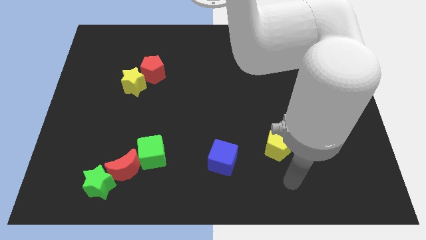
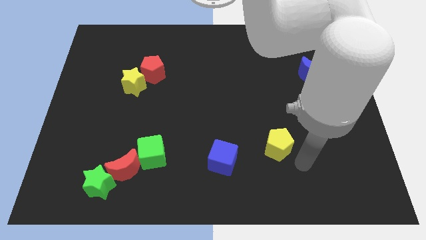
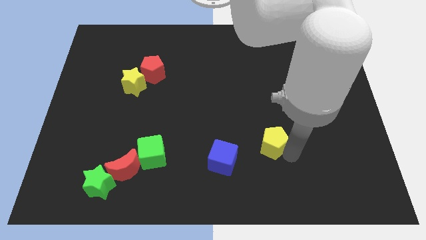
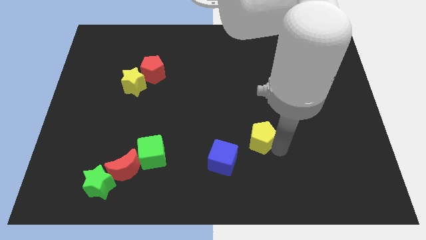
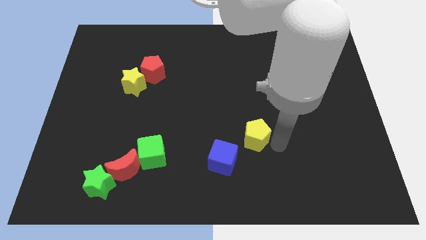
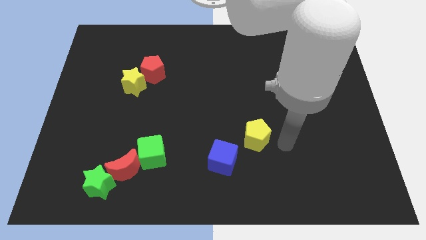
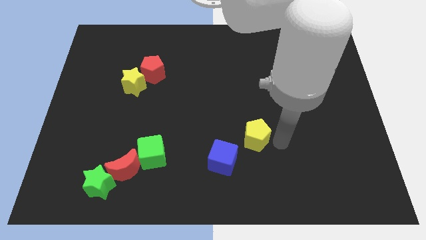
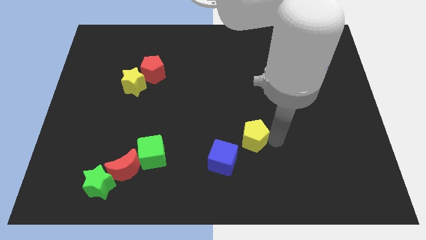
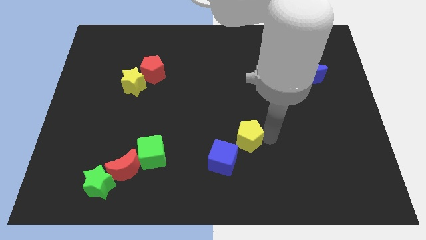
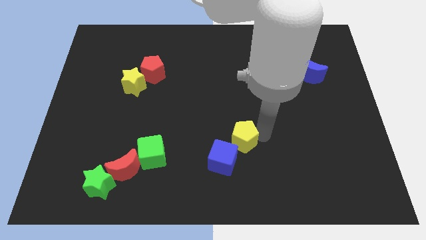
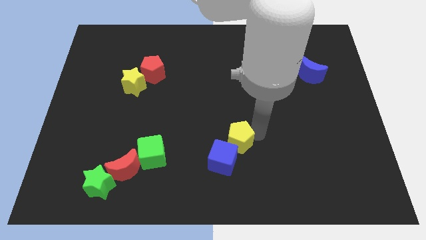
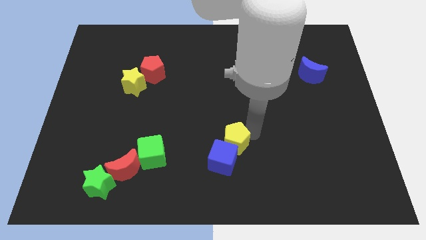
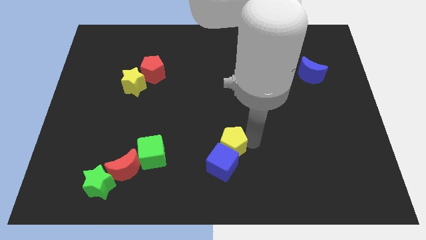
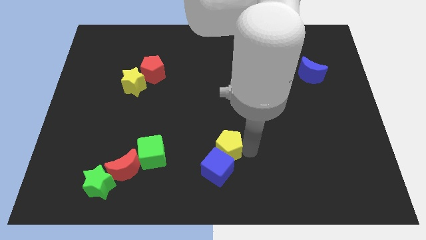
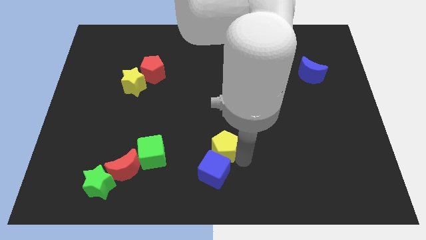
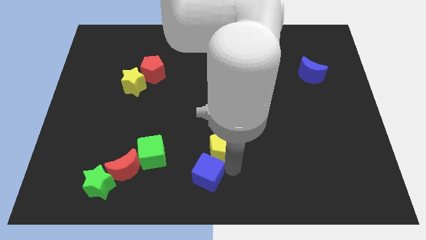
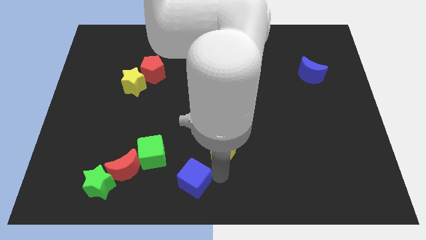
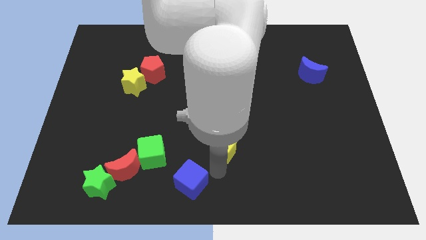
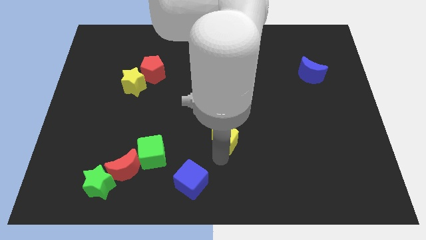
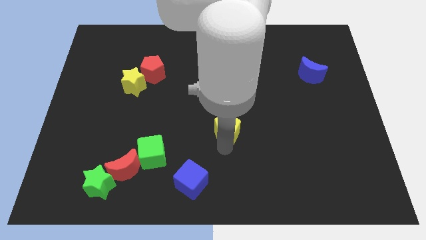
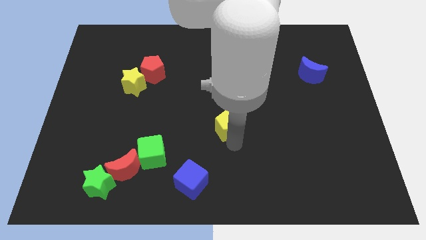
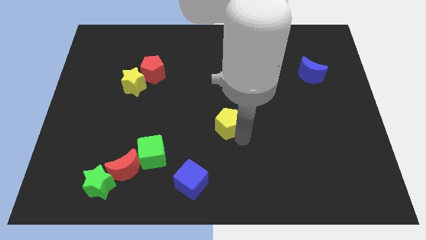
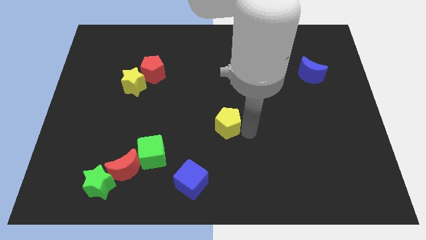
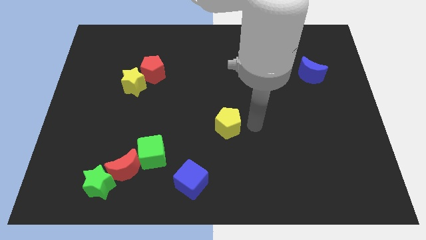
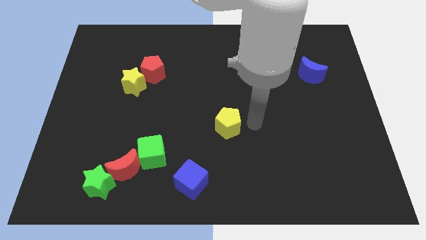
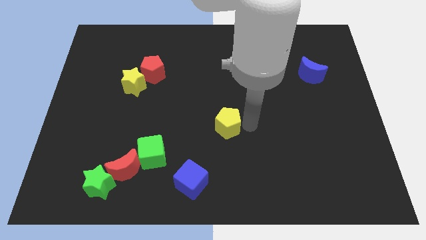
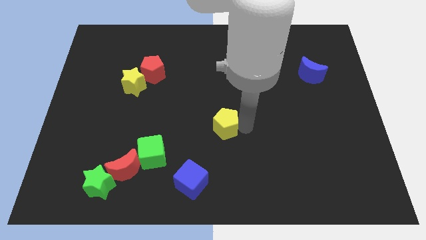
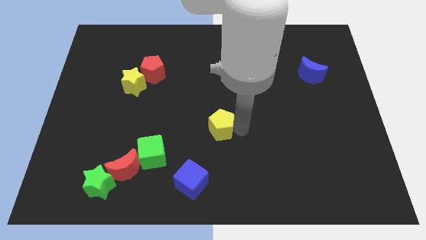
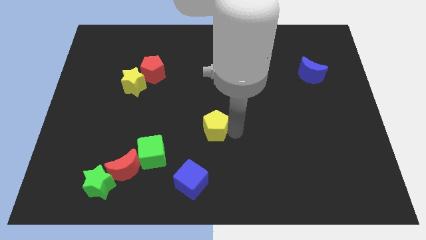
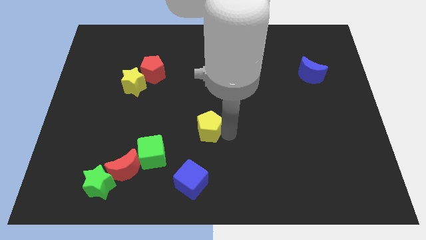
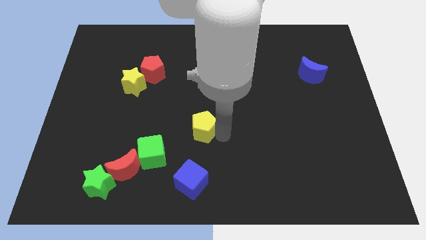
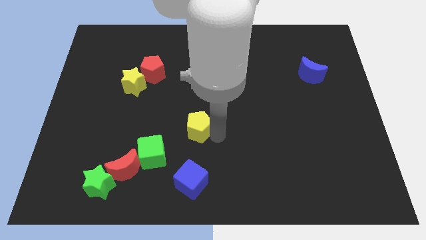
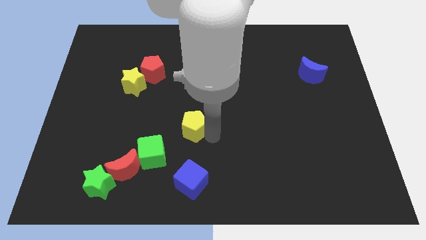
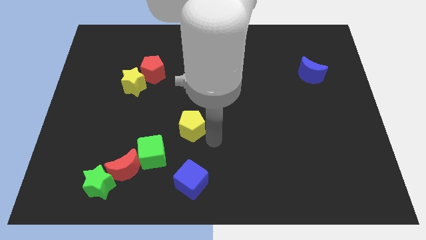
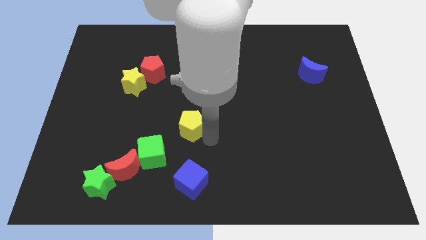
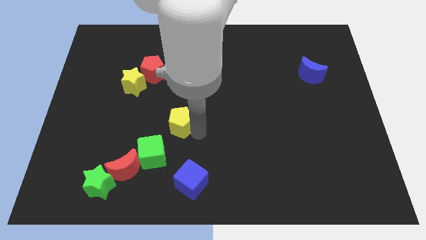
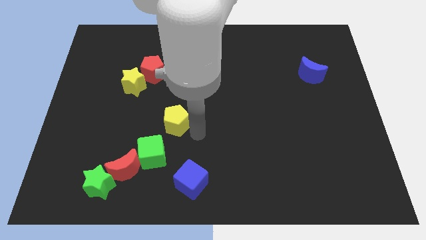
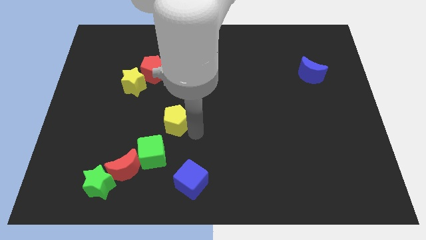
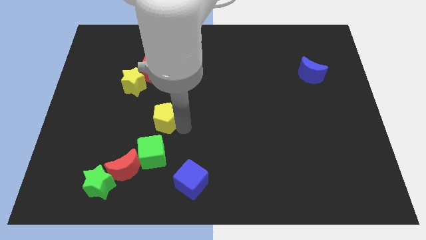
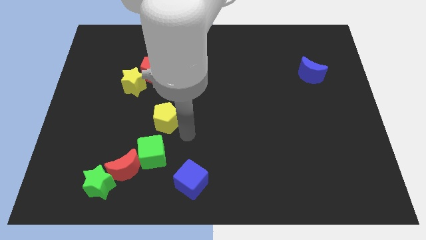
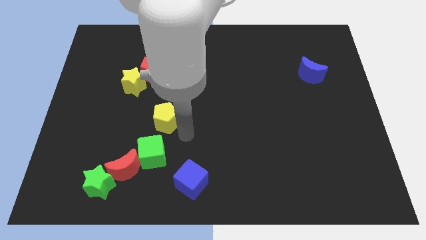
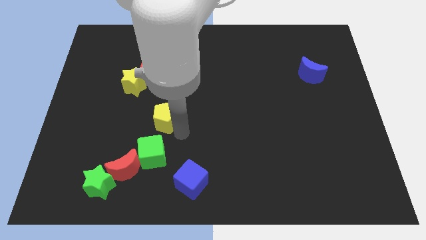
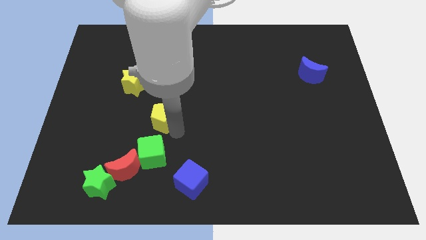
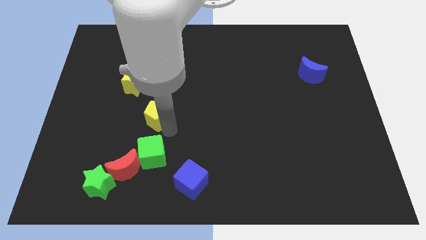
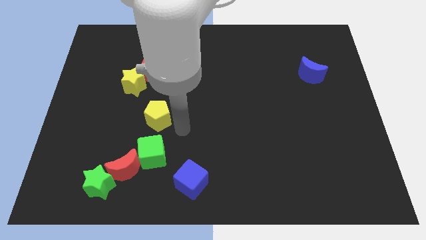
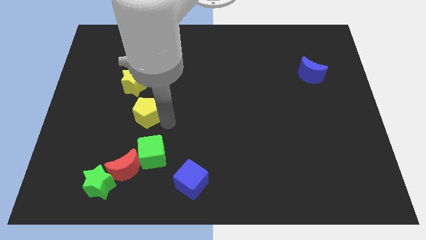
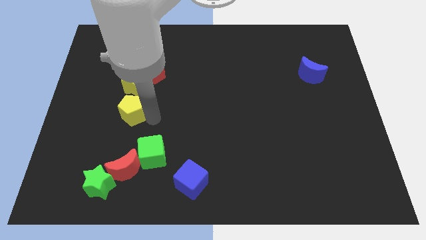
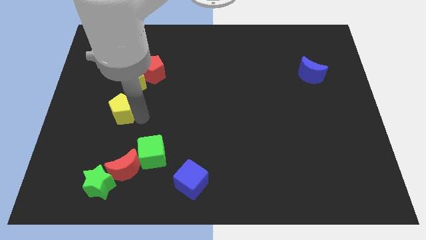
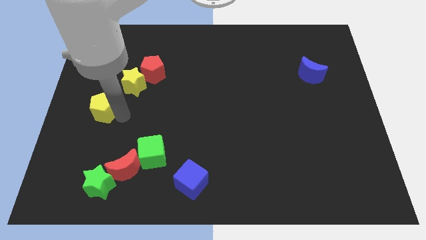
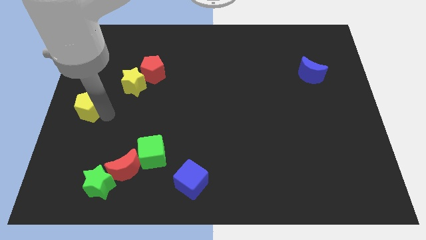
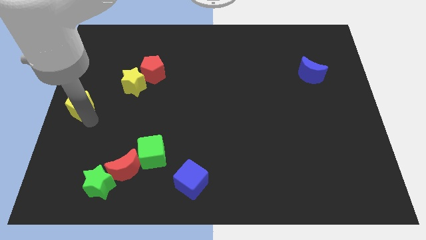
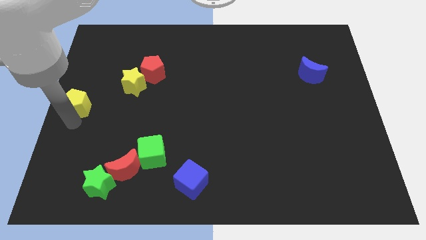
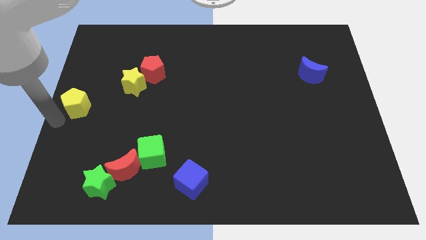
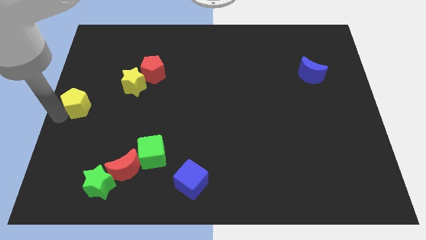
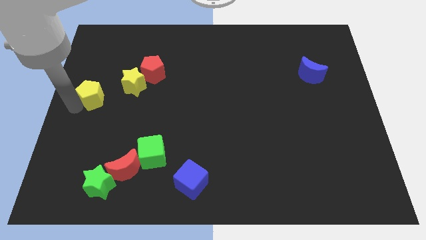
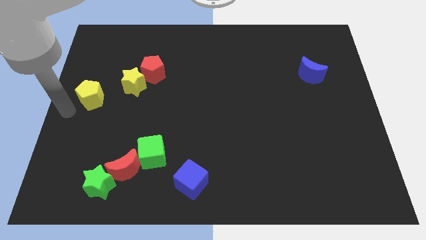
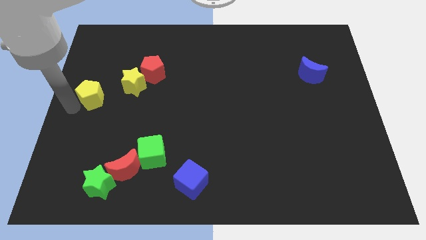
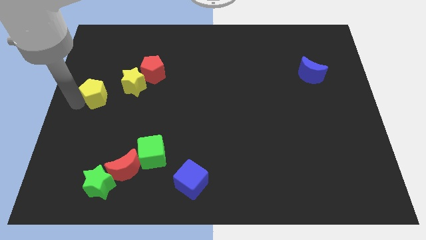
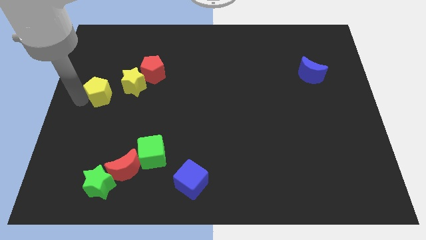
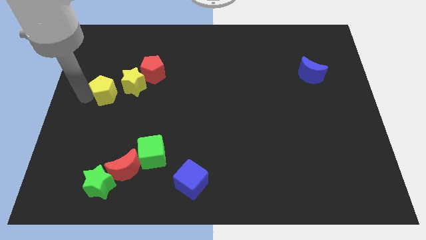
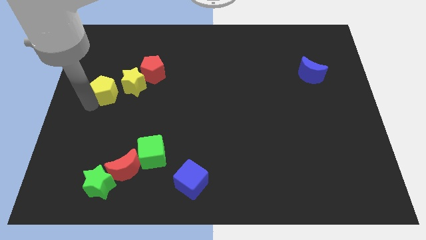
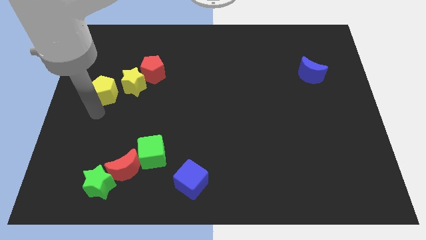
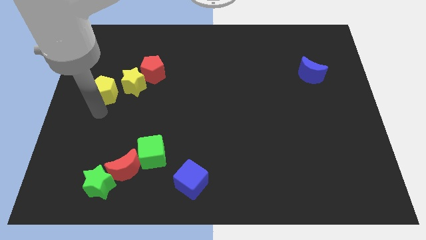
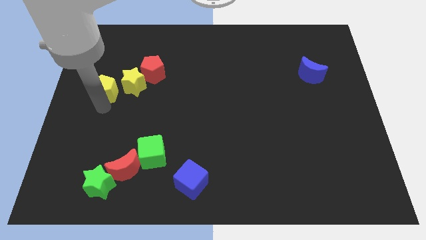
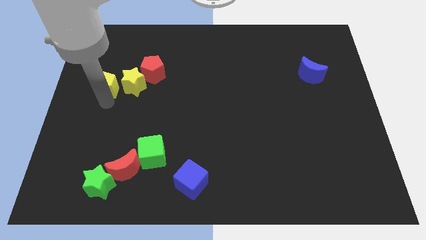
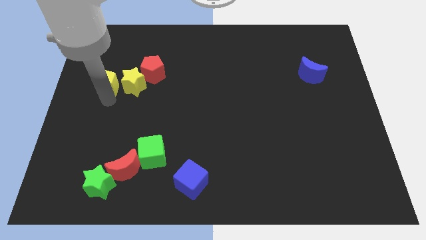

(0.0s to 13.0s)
slide the yellow pentagon just left of the red pentagon

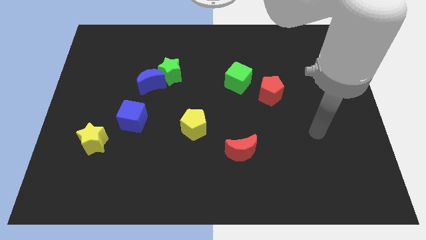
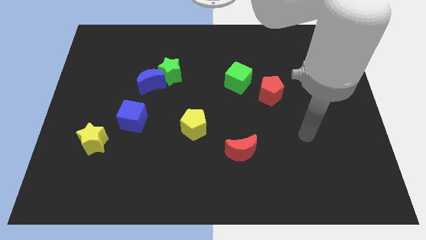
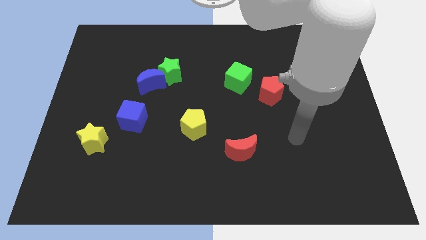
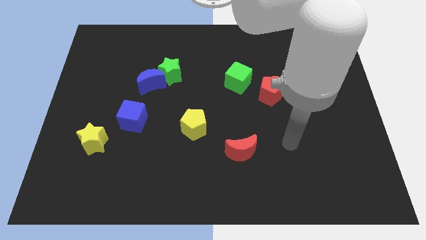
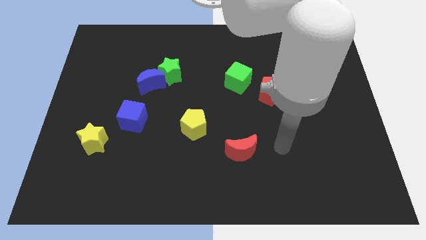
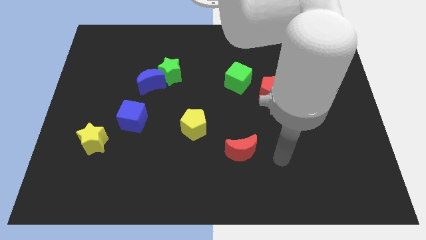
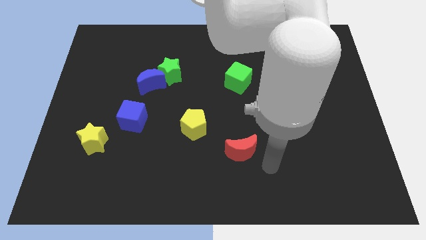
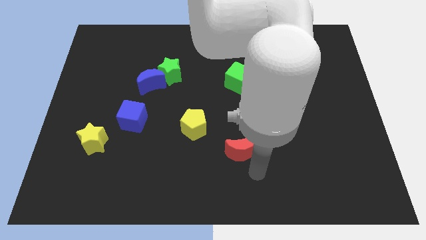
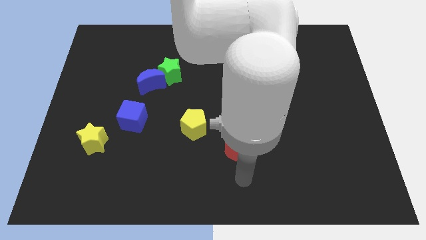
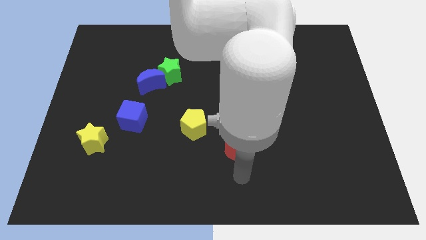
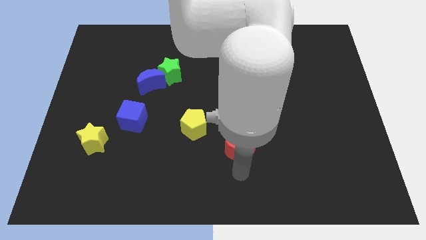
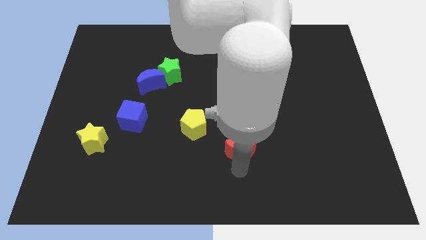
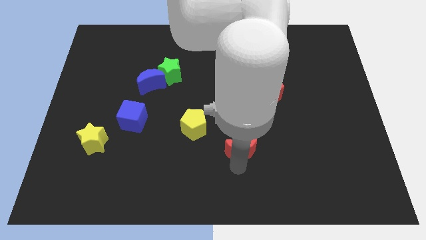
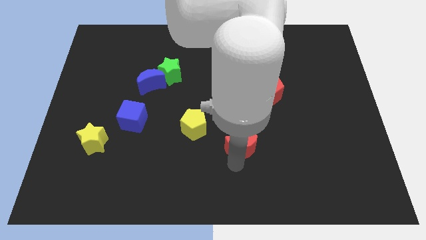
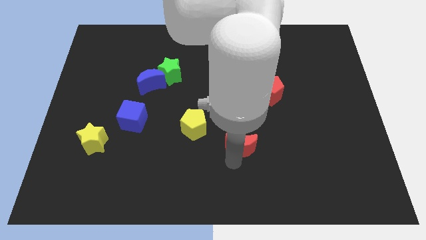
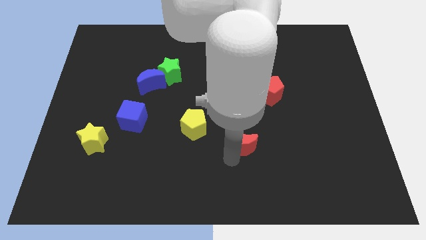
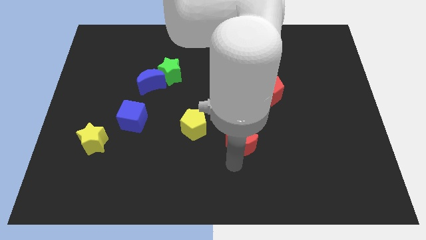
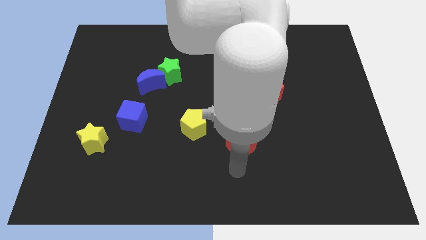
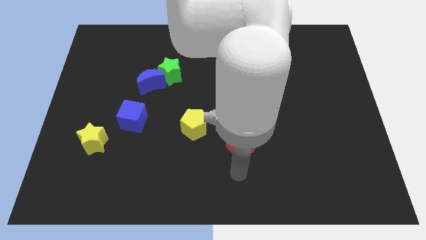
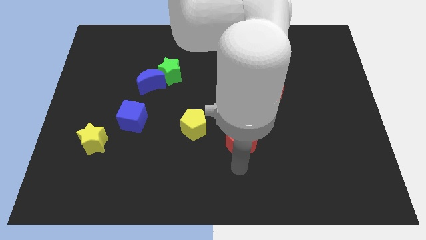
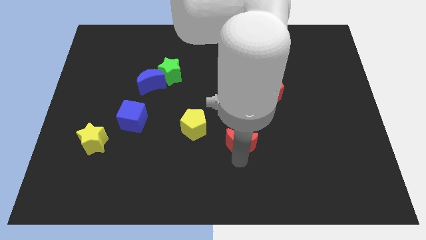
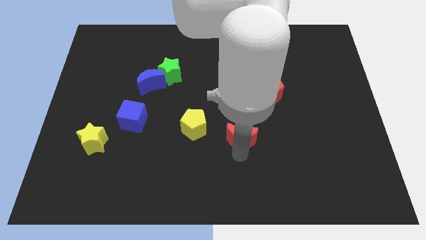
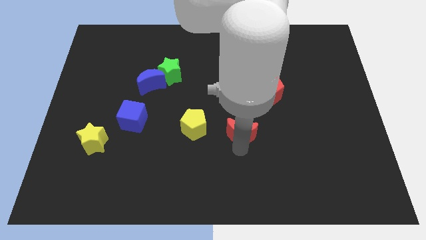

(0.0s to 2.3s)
slide the red moon to the bottom side of the green cube
